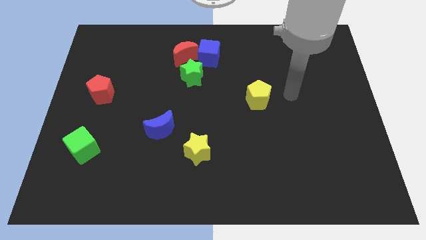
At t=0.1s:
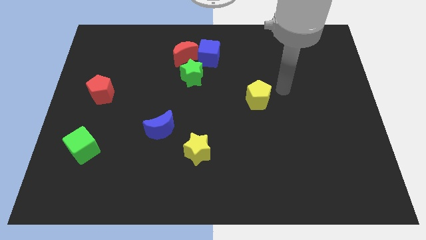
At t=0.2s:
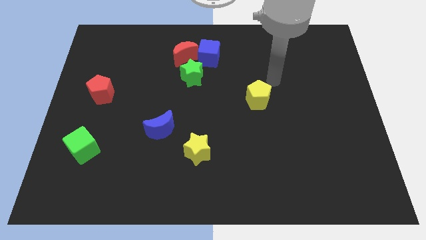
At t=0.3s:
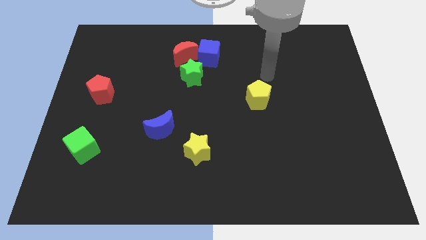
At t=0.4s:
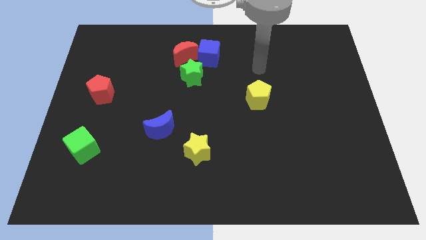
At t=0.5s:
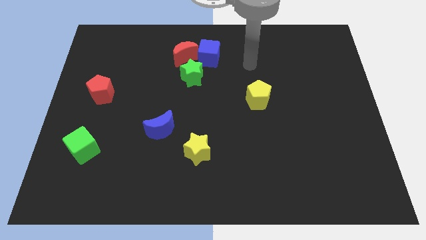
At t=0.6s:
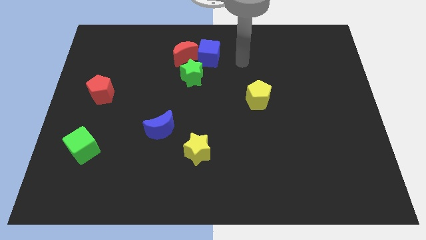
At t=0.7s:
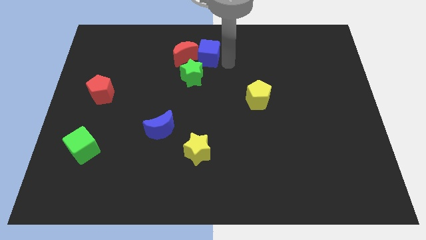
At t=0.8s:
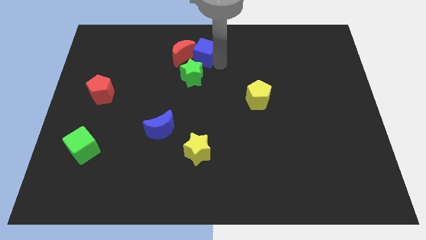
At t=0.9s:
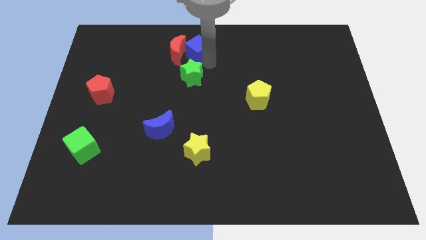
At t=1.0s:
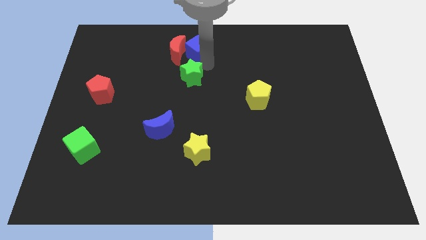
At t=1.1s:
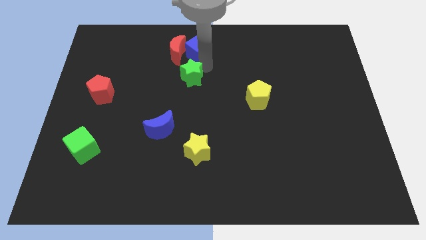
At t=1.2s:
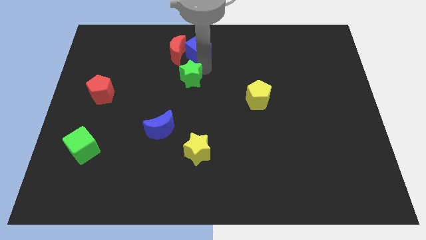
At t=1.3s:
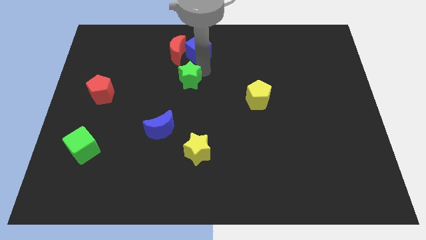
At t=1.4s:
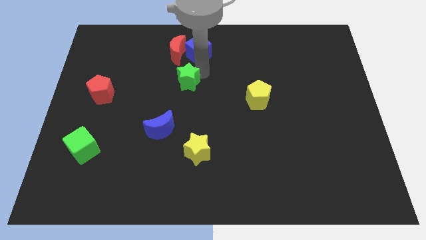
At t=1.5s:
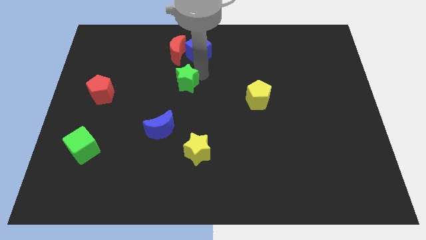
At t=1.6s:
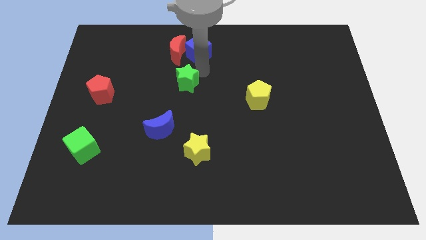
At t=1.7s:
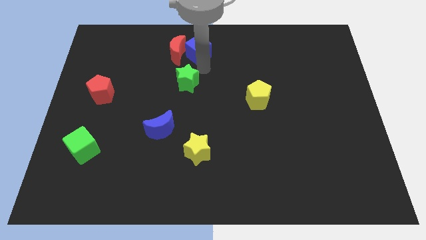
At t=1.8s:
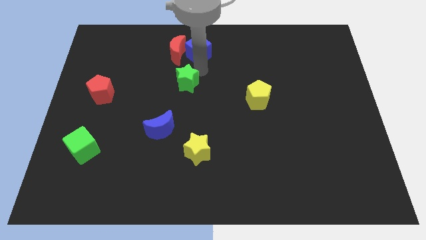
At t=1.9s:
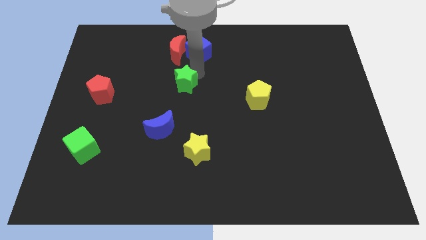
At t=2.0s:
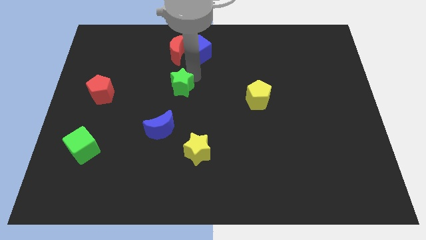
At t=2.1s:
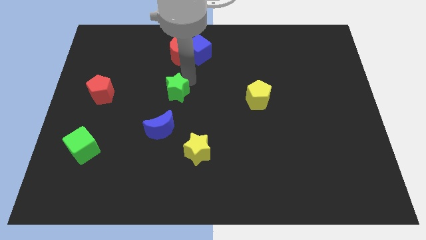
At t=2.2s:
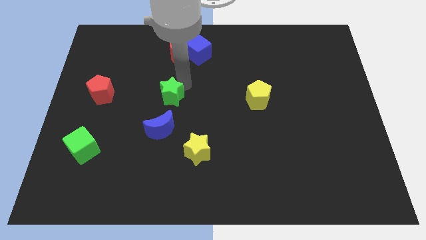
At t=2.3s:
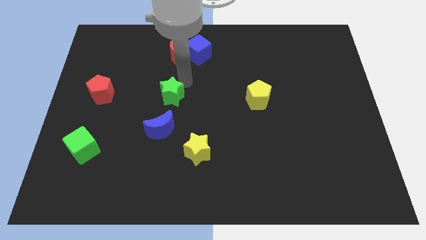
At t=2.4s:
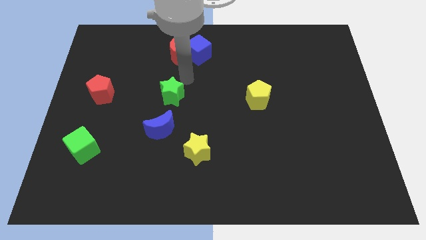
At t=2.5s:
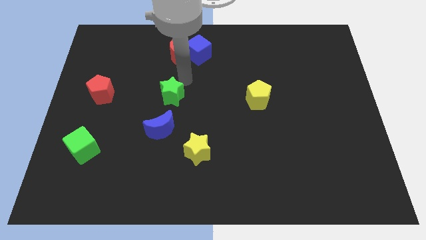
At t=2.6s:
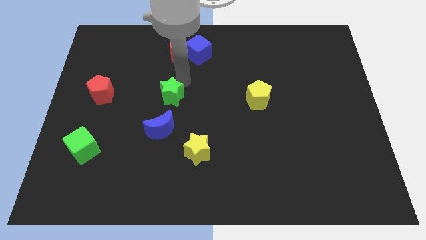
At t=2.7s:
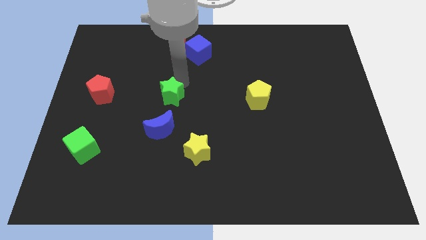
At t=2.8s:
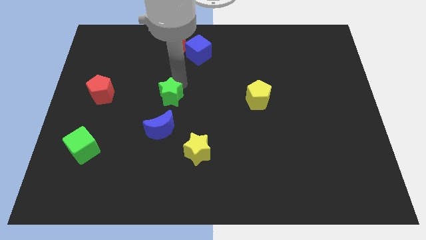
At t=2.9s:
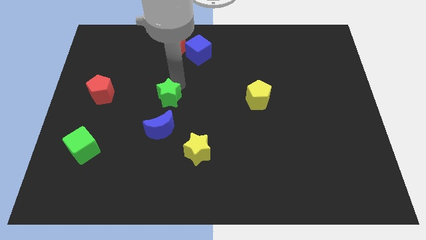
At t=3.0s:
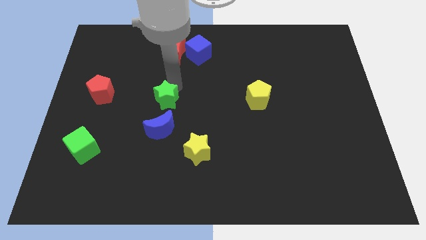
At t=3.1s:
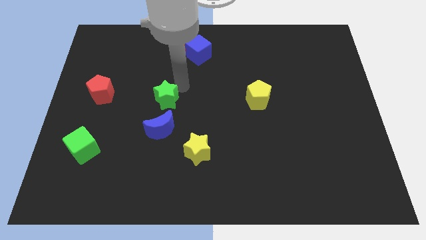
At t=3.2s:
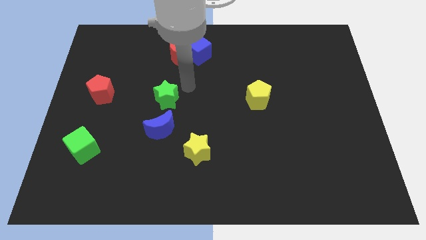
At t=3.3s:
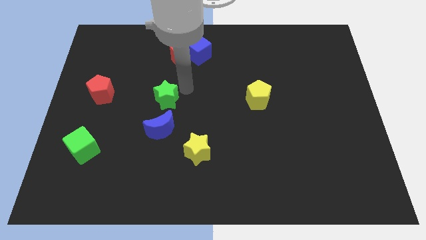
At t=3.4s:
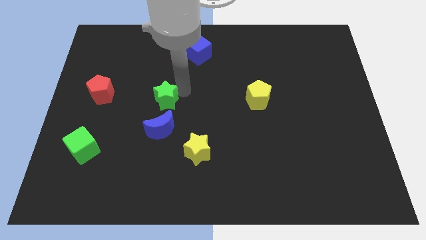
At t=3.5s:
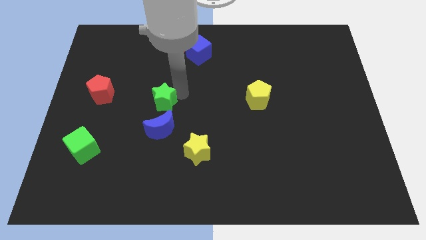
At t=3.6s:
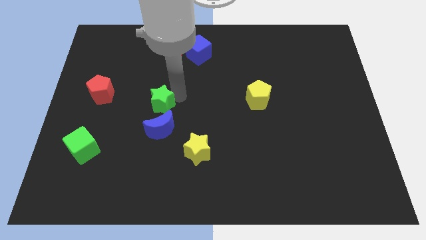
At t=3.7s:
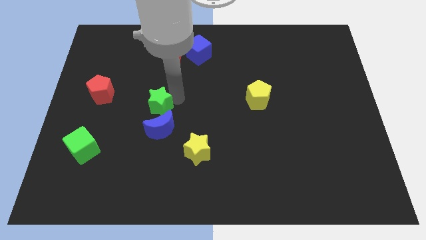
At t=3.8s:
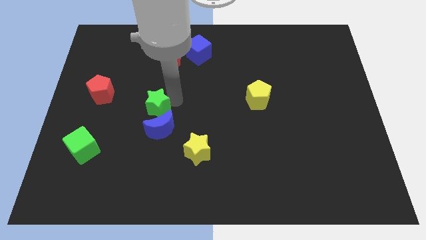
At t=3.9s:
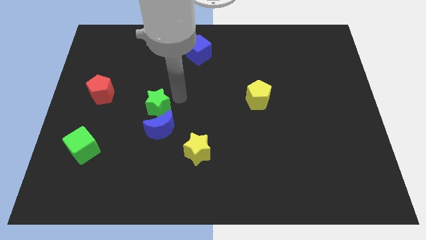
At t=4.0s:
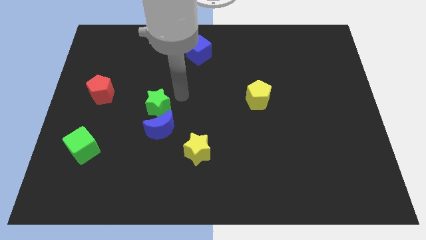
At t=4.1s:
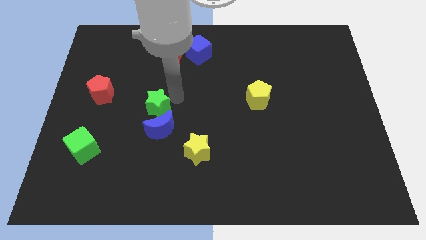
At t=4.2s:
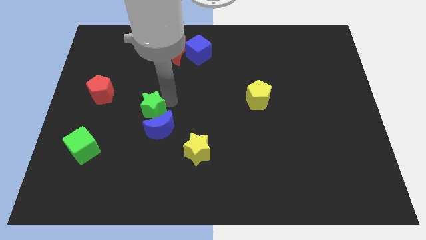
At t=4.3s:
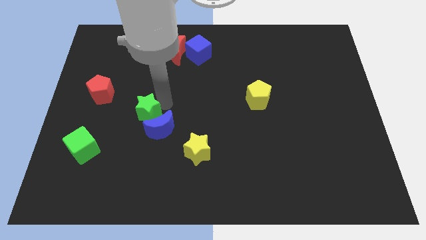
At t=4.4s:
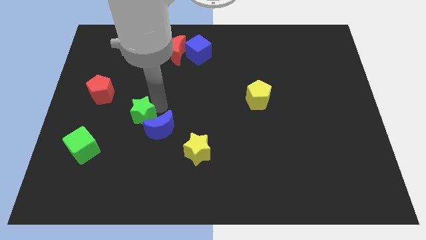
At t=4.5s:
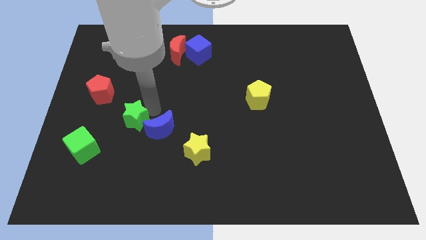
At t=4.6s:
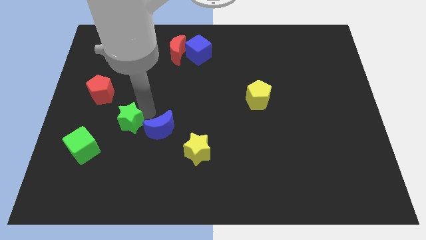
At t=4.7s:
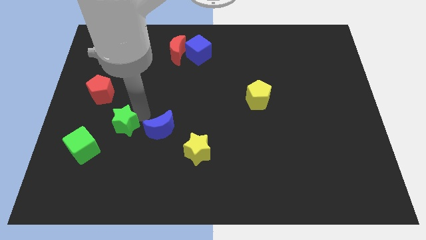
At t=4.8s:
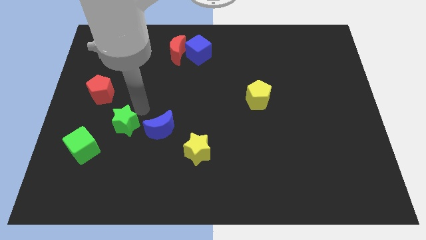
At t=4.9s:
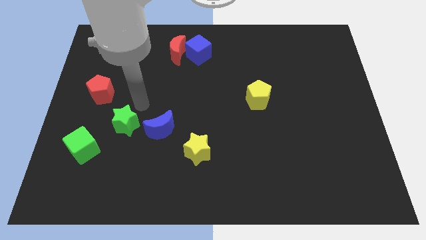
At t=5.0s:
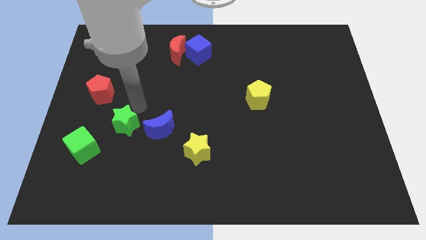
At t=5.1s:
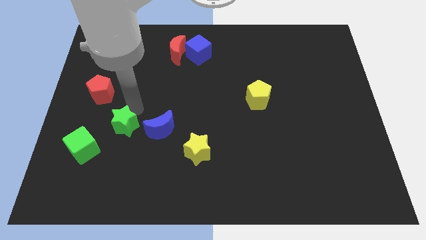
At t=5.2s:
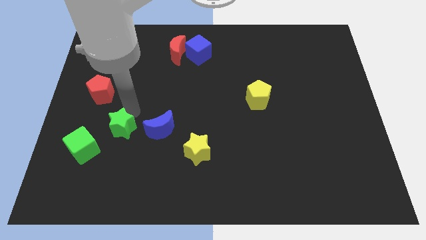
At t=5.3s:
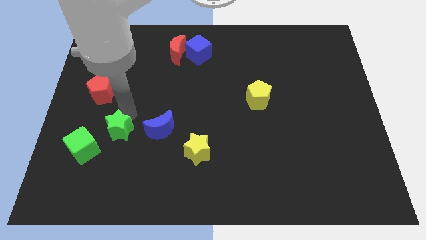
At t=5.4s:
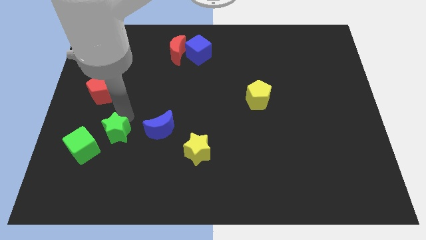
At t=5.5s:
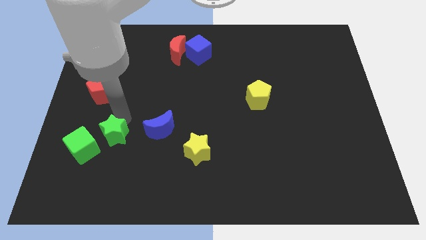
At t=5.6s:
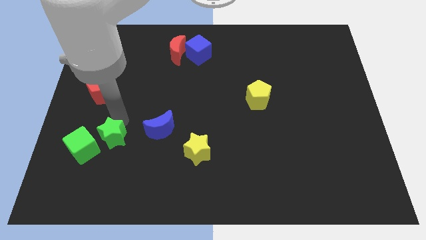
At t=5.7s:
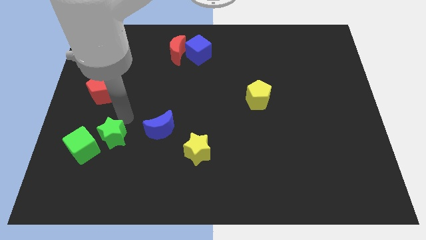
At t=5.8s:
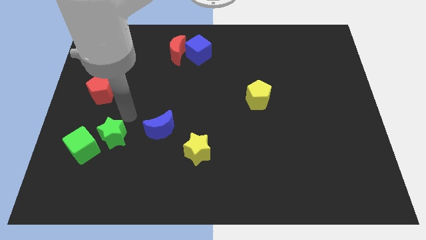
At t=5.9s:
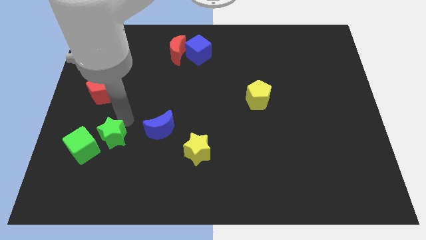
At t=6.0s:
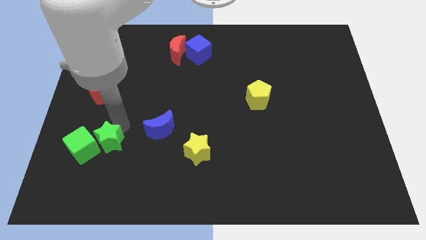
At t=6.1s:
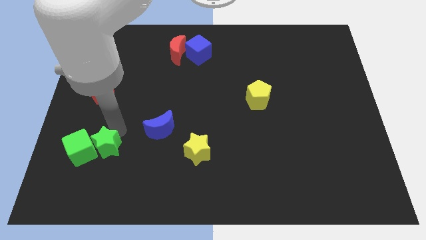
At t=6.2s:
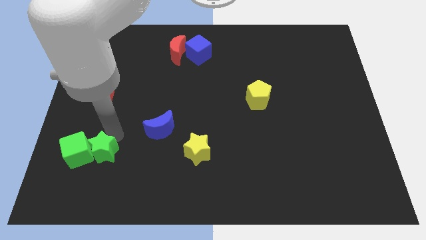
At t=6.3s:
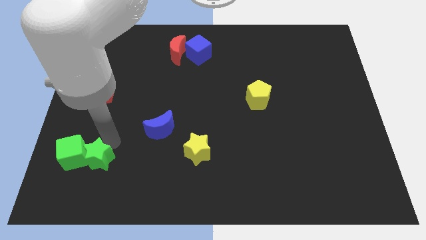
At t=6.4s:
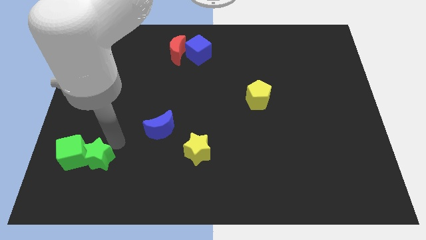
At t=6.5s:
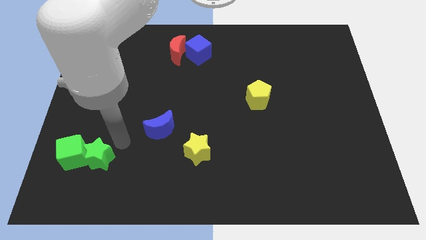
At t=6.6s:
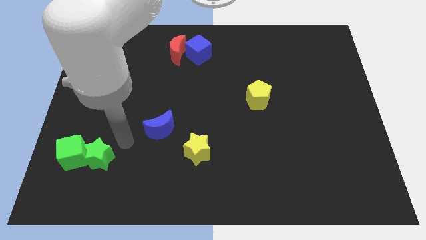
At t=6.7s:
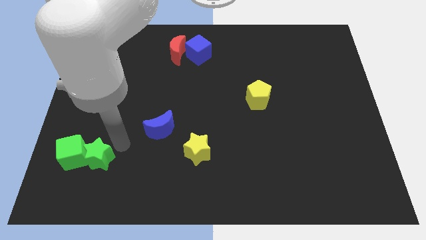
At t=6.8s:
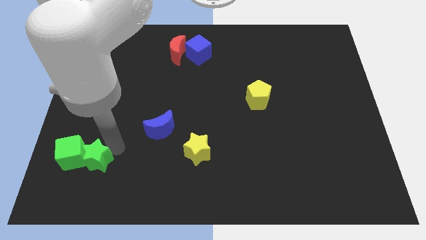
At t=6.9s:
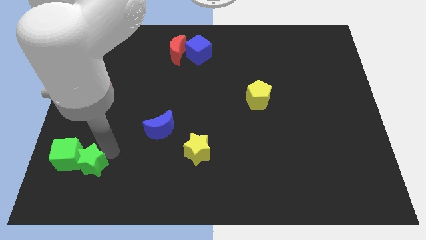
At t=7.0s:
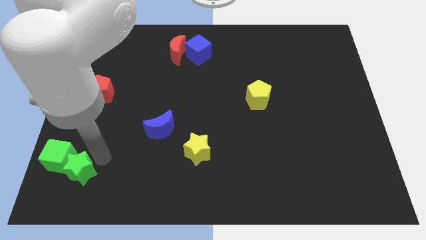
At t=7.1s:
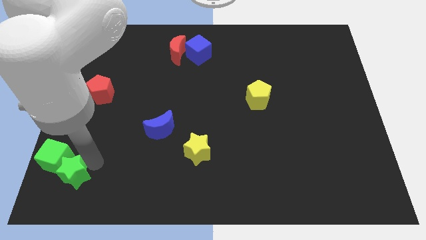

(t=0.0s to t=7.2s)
move the green star to the bottom left
